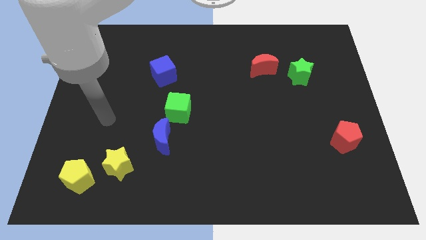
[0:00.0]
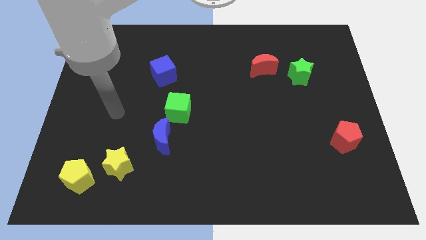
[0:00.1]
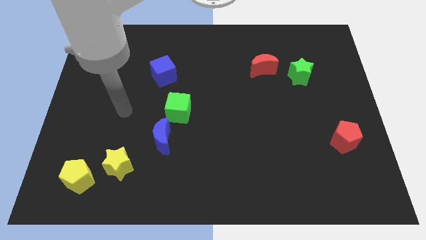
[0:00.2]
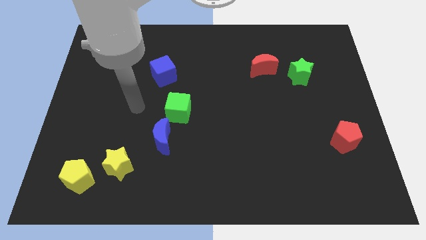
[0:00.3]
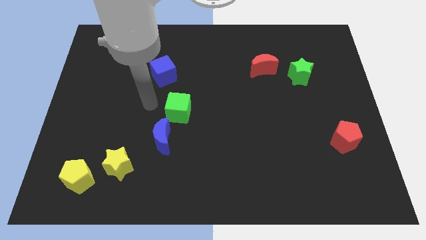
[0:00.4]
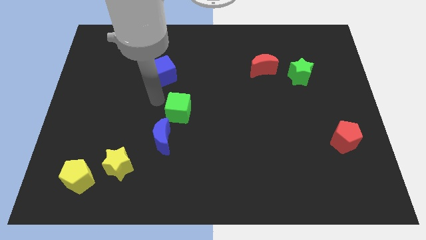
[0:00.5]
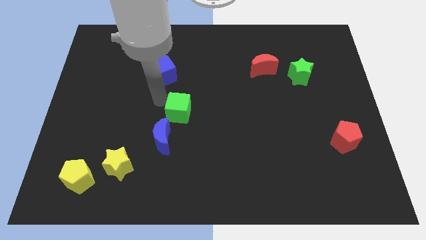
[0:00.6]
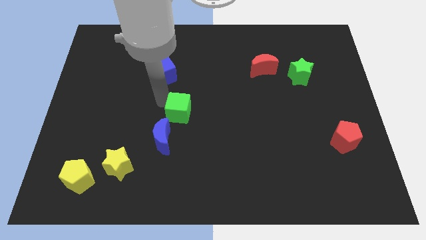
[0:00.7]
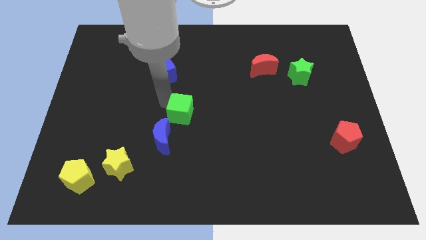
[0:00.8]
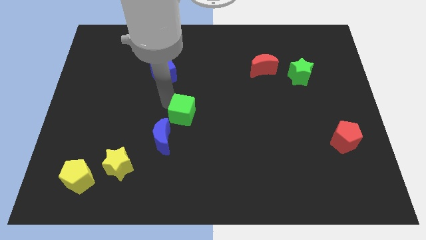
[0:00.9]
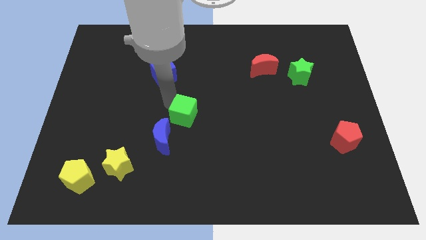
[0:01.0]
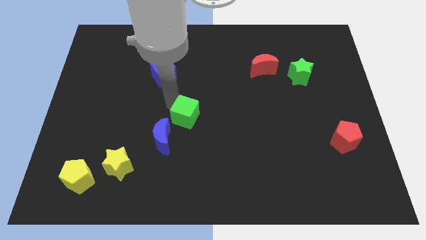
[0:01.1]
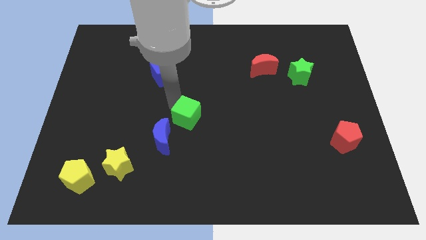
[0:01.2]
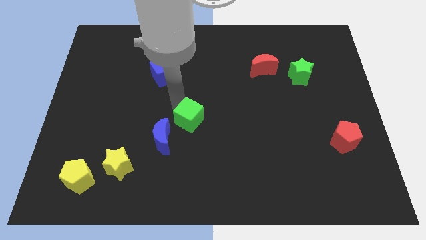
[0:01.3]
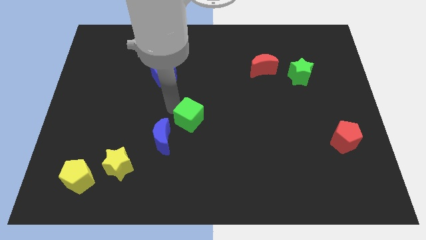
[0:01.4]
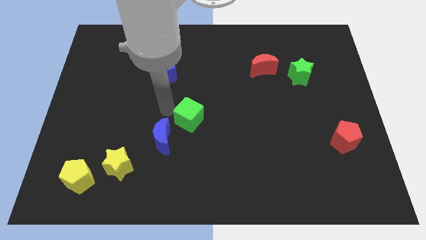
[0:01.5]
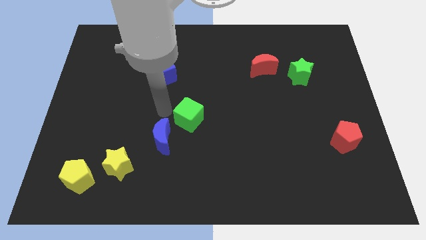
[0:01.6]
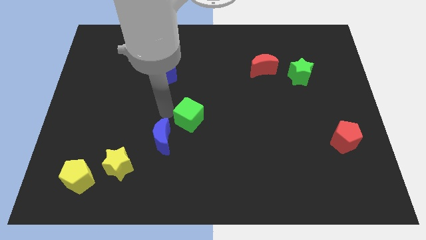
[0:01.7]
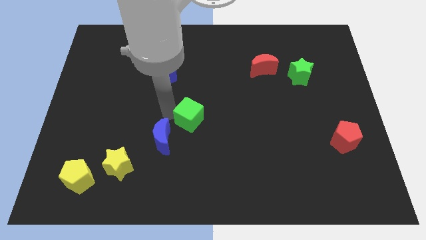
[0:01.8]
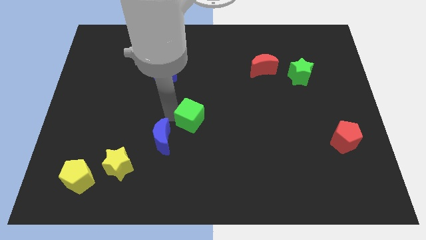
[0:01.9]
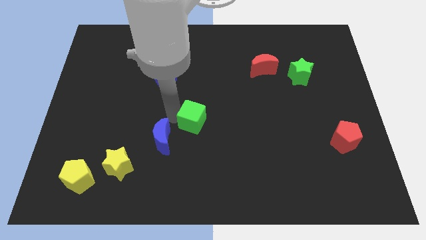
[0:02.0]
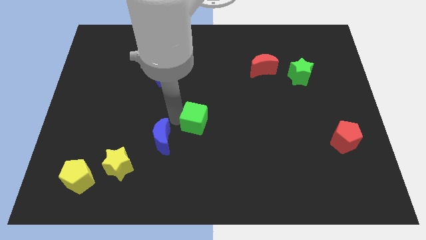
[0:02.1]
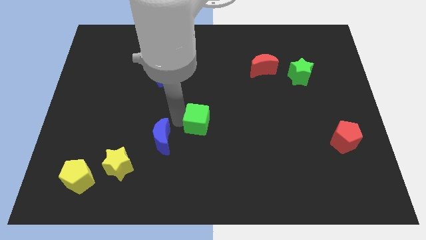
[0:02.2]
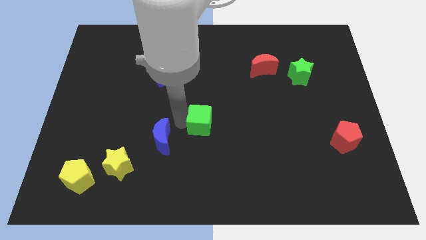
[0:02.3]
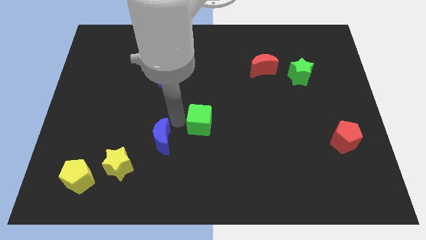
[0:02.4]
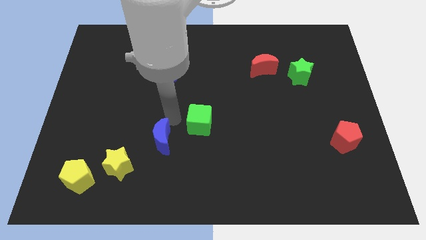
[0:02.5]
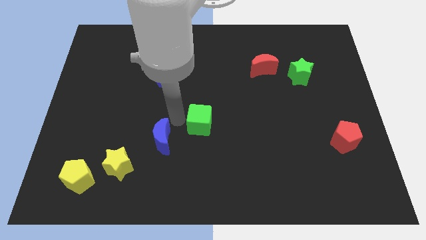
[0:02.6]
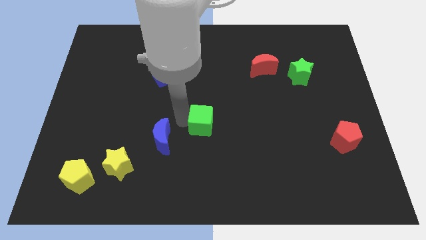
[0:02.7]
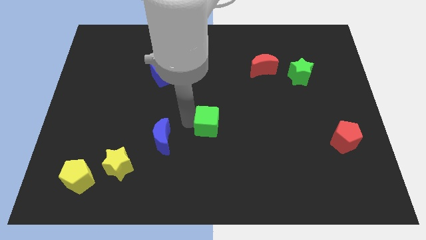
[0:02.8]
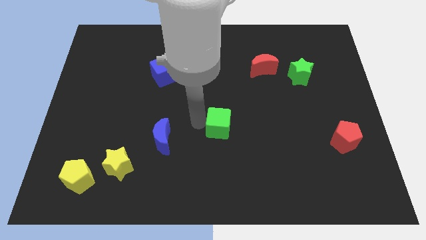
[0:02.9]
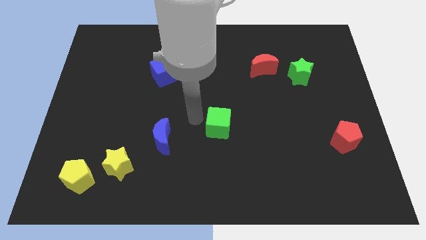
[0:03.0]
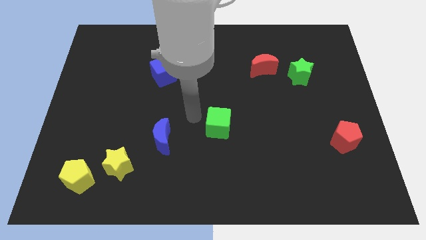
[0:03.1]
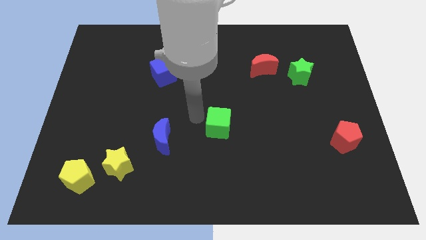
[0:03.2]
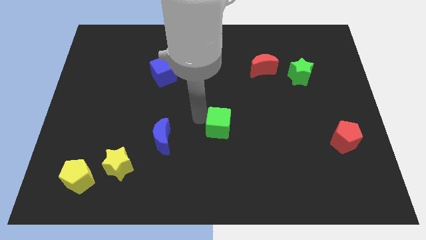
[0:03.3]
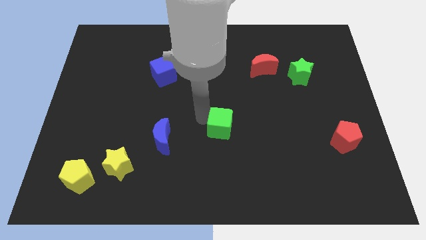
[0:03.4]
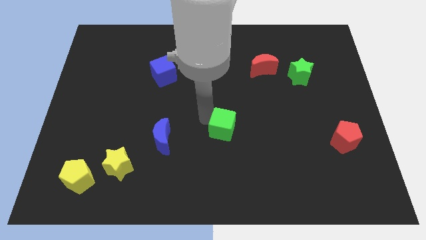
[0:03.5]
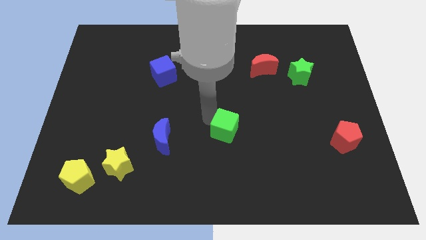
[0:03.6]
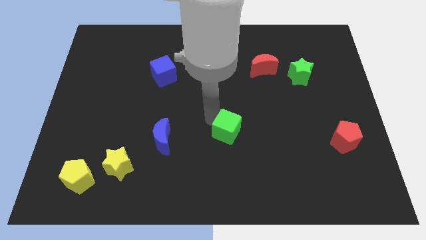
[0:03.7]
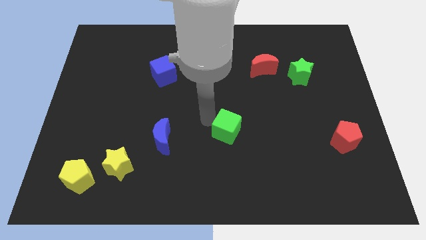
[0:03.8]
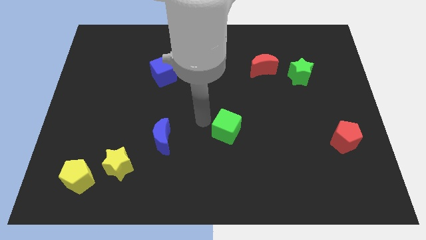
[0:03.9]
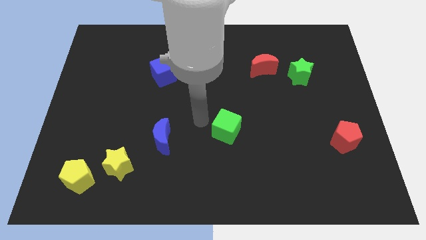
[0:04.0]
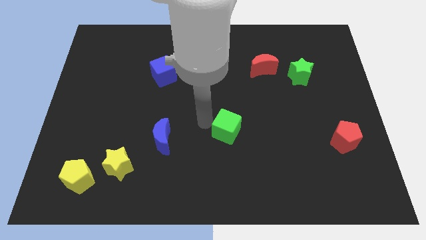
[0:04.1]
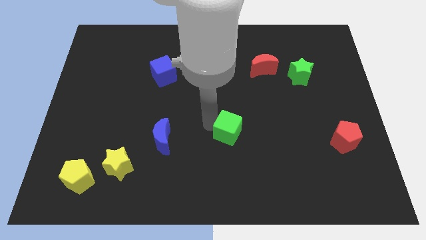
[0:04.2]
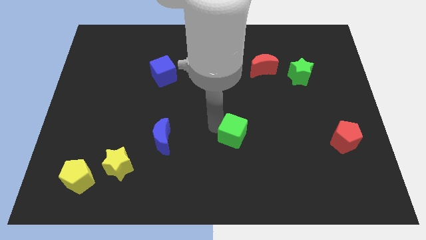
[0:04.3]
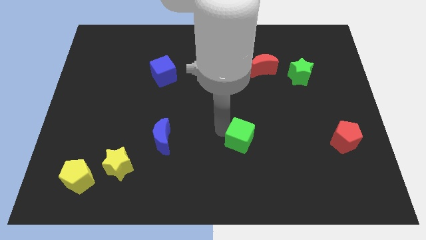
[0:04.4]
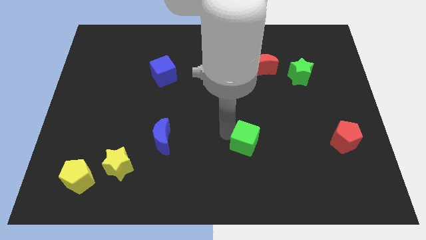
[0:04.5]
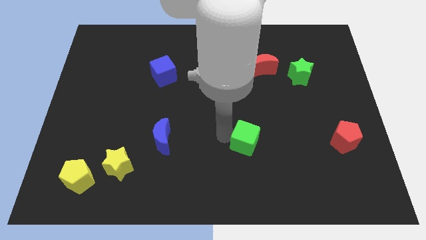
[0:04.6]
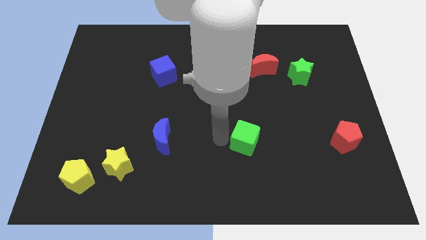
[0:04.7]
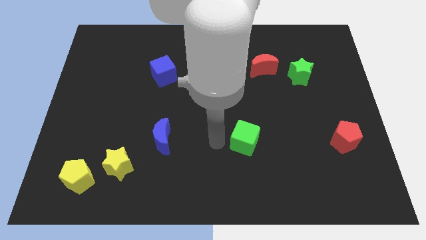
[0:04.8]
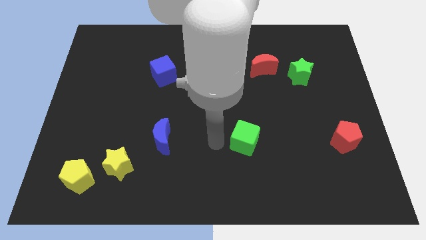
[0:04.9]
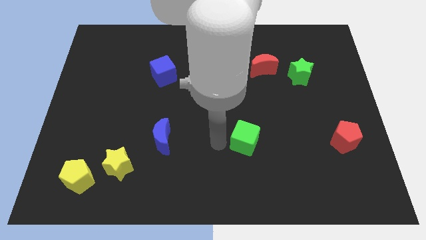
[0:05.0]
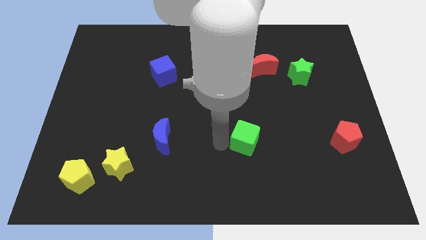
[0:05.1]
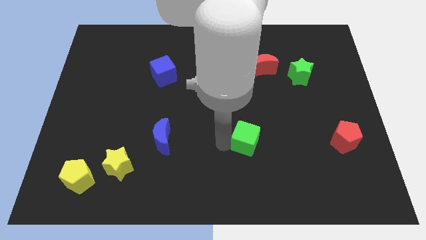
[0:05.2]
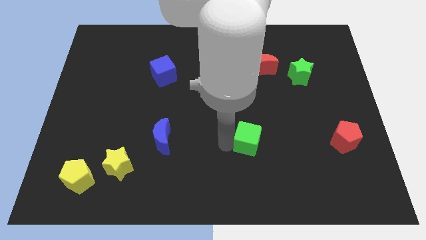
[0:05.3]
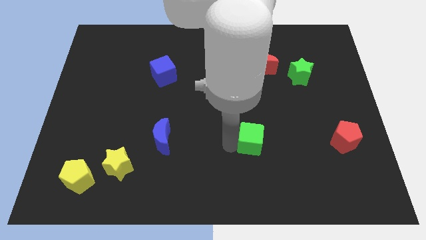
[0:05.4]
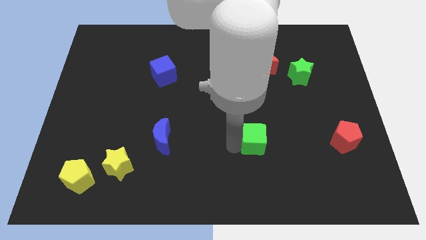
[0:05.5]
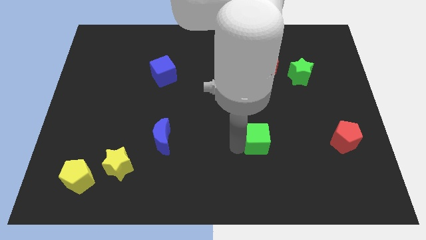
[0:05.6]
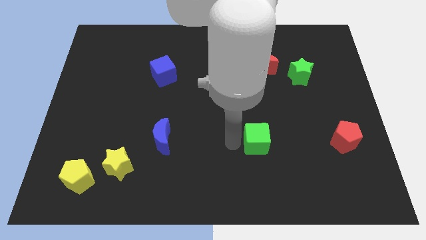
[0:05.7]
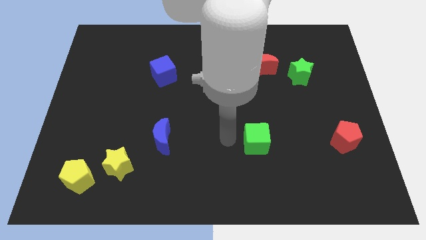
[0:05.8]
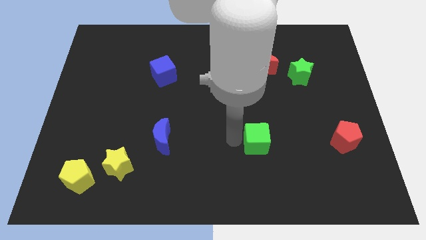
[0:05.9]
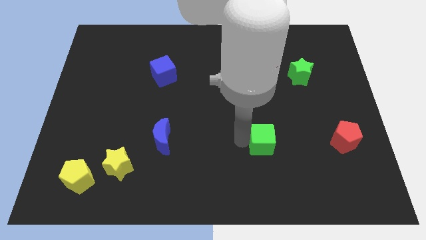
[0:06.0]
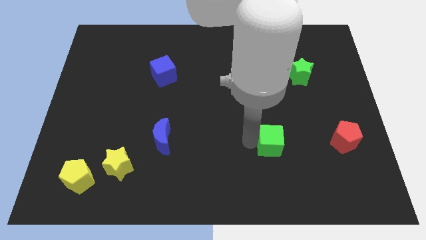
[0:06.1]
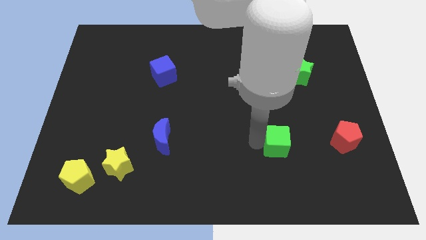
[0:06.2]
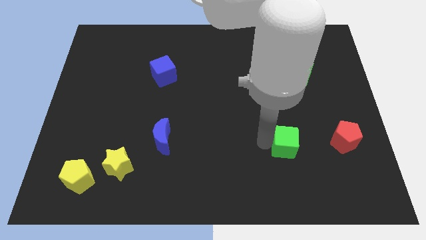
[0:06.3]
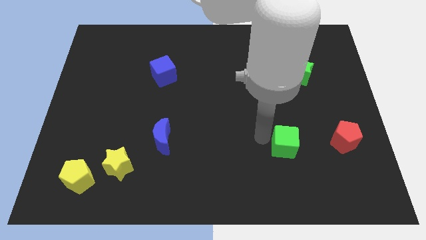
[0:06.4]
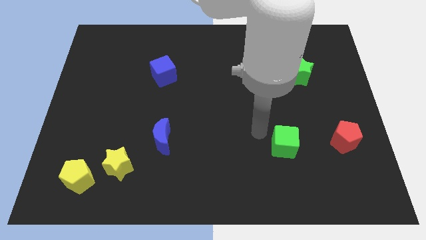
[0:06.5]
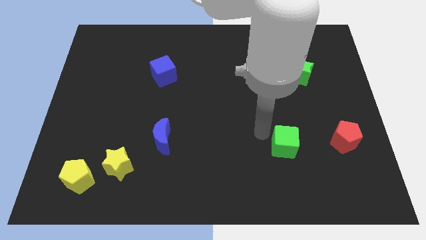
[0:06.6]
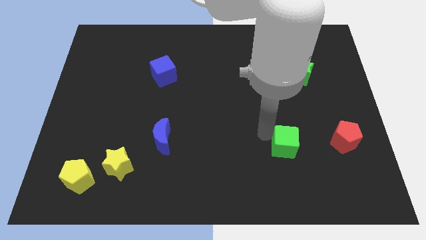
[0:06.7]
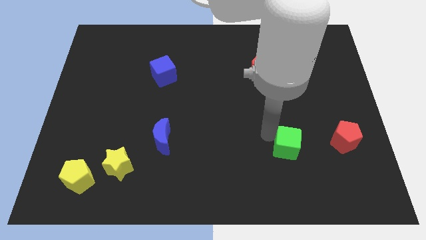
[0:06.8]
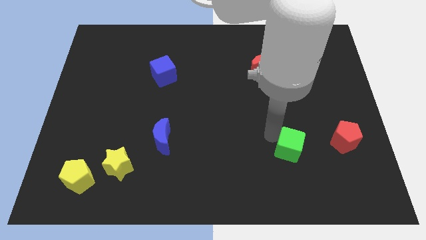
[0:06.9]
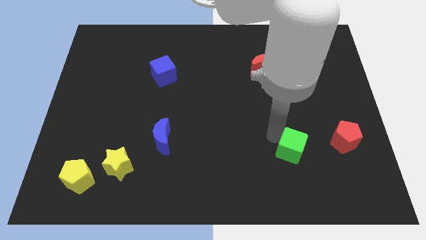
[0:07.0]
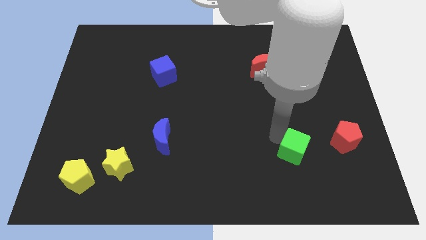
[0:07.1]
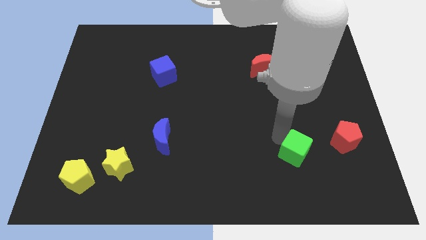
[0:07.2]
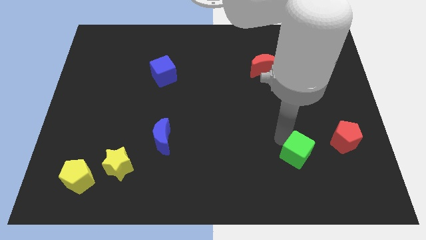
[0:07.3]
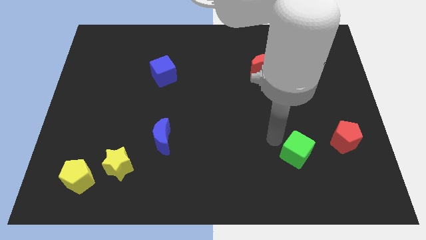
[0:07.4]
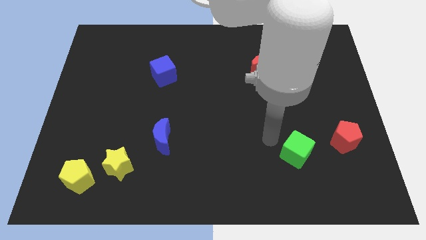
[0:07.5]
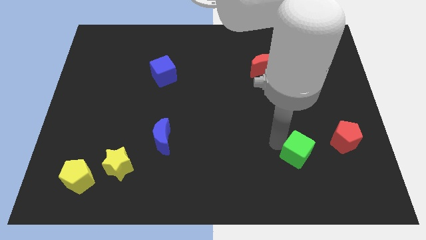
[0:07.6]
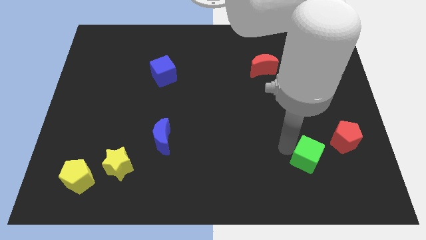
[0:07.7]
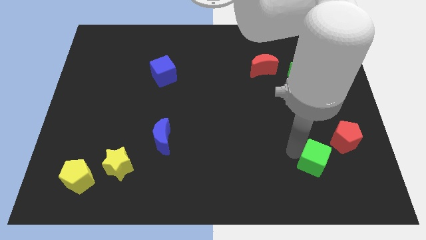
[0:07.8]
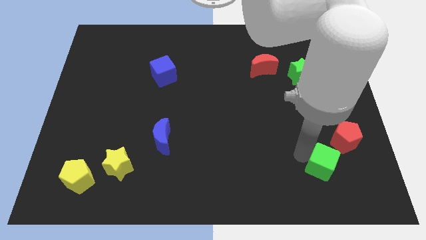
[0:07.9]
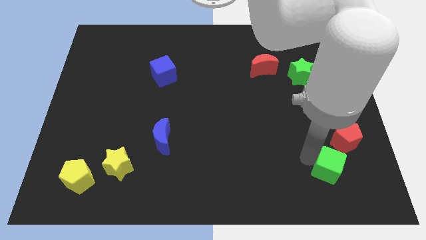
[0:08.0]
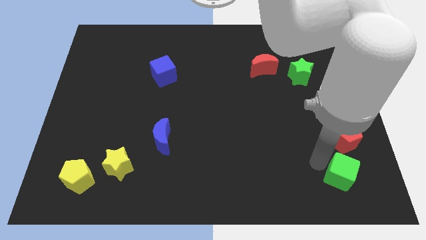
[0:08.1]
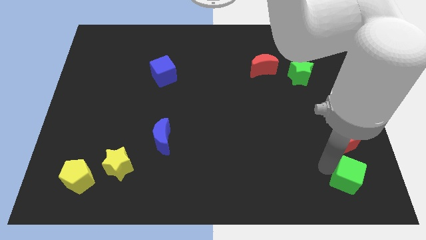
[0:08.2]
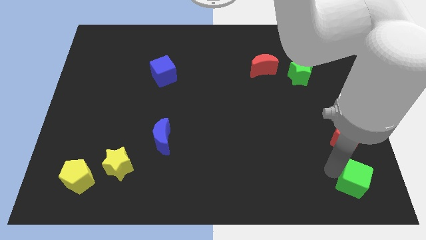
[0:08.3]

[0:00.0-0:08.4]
put the green cube to the bottom right corner
